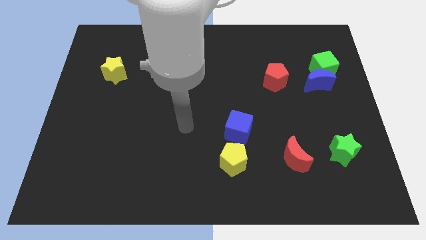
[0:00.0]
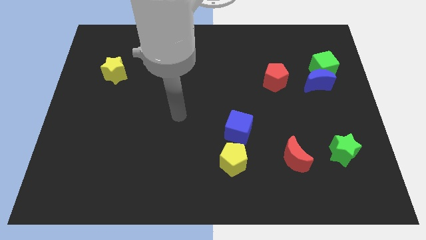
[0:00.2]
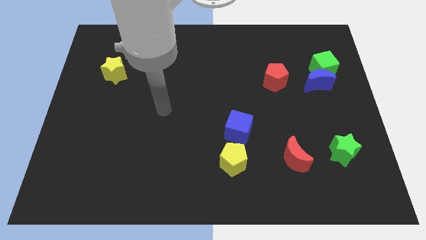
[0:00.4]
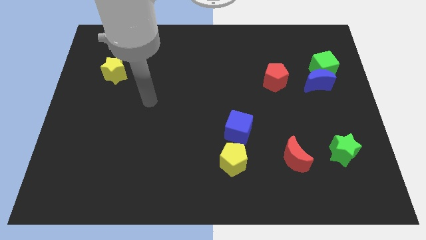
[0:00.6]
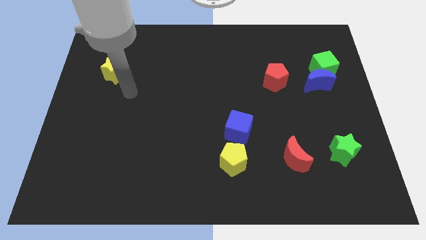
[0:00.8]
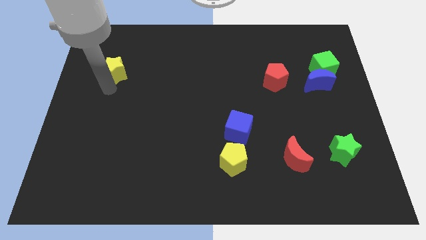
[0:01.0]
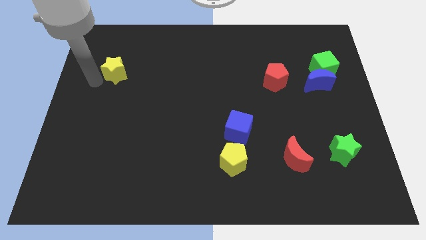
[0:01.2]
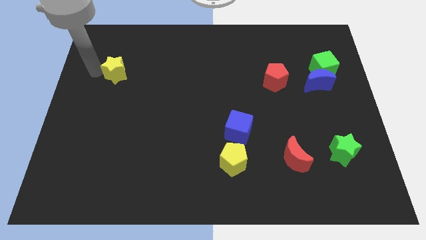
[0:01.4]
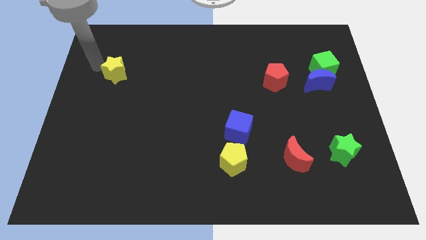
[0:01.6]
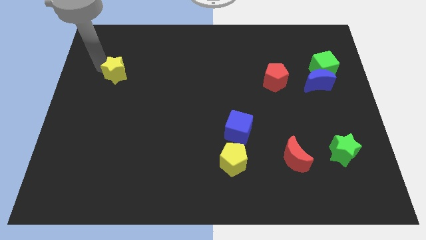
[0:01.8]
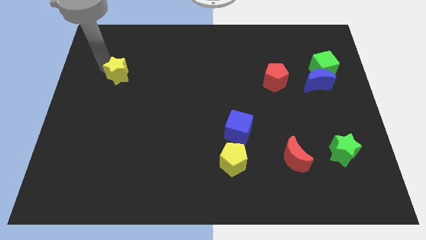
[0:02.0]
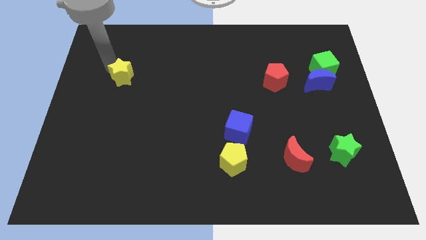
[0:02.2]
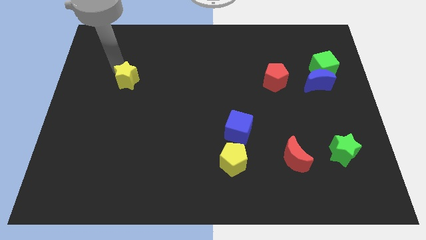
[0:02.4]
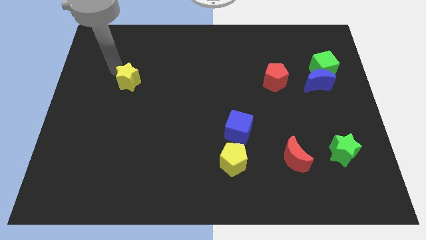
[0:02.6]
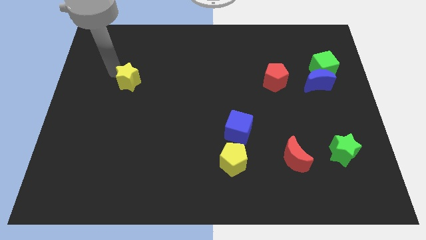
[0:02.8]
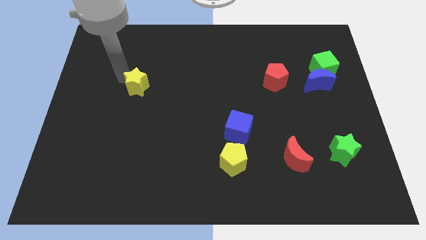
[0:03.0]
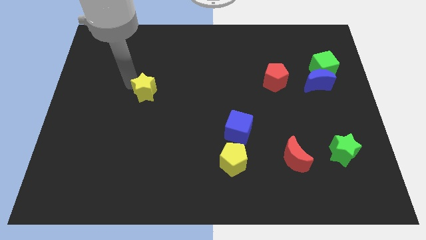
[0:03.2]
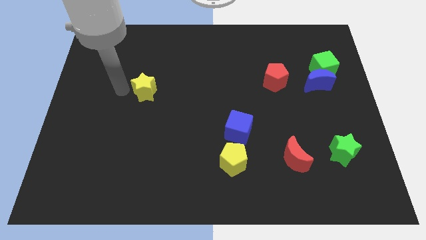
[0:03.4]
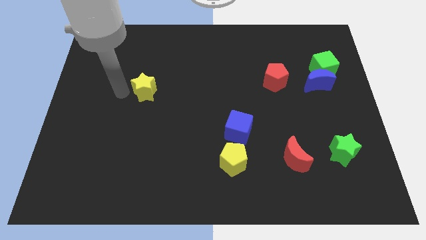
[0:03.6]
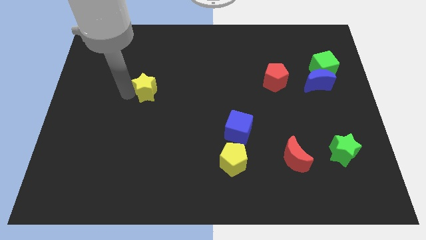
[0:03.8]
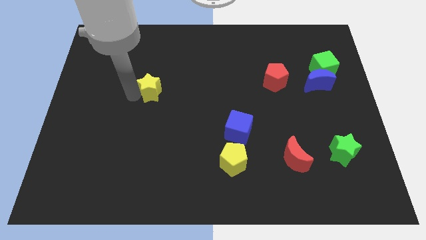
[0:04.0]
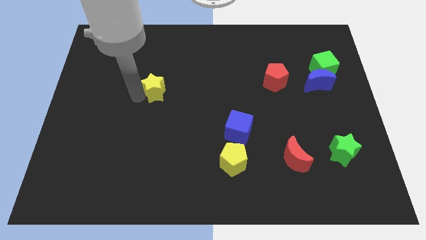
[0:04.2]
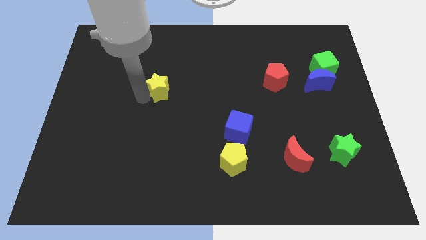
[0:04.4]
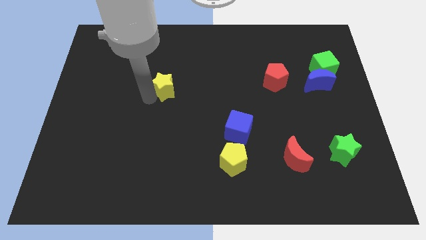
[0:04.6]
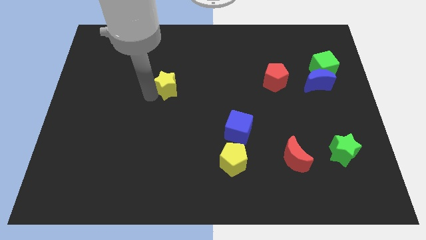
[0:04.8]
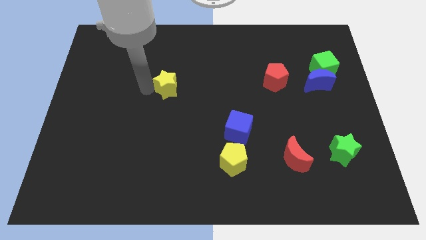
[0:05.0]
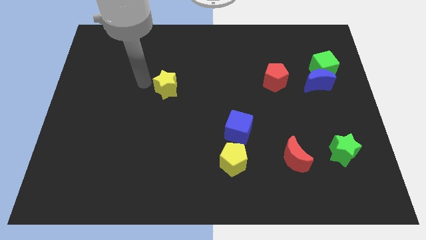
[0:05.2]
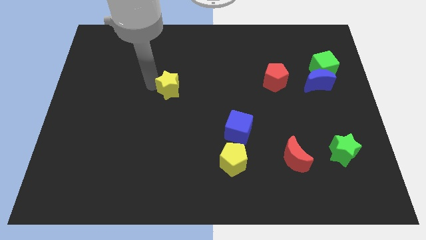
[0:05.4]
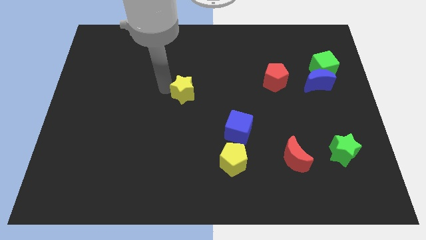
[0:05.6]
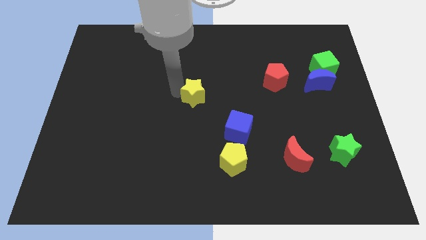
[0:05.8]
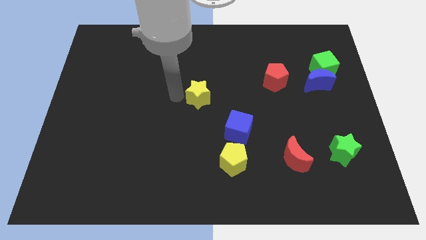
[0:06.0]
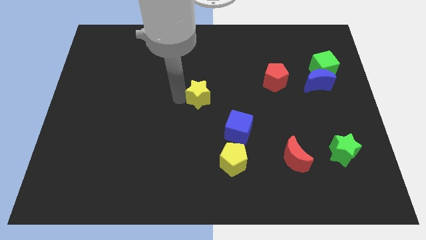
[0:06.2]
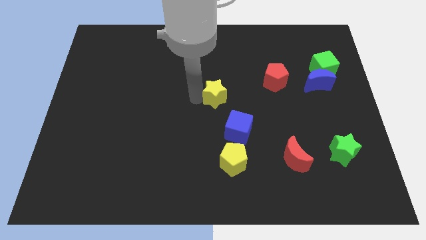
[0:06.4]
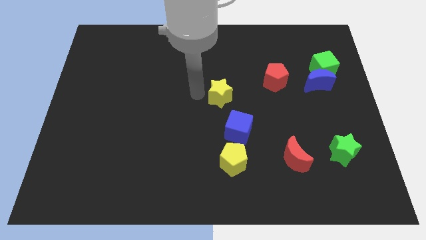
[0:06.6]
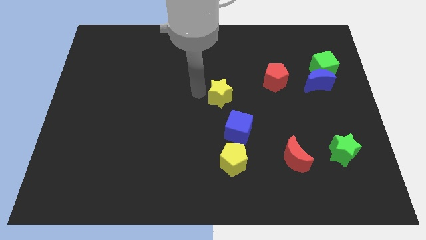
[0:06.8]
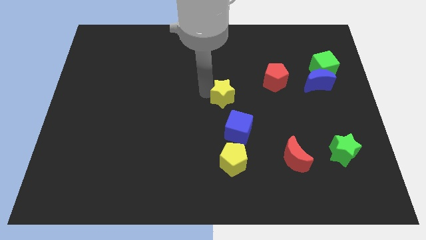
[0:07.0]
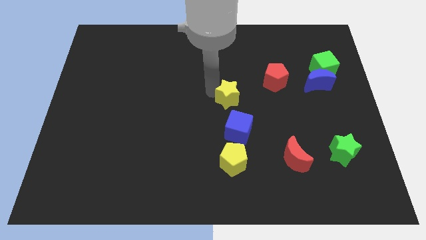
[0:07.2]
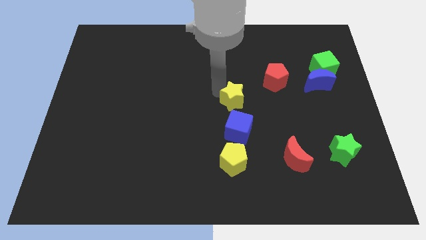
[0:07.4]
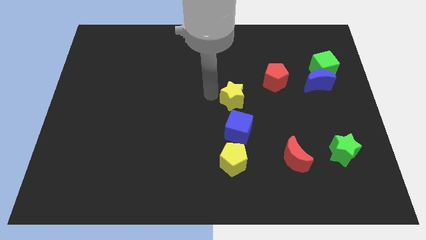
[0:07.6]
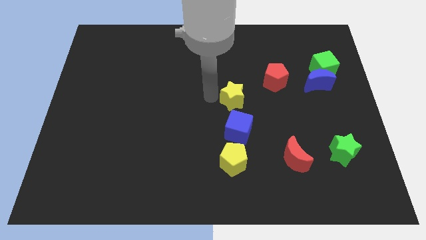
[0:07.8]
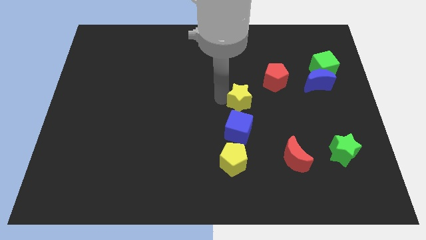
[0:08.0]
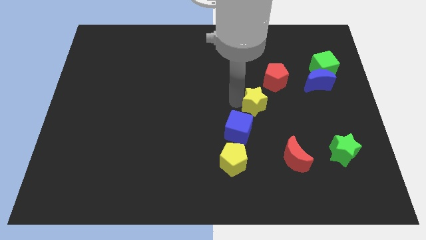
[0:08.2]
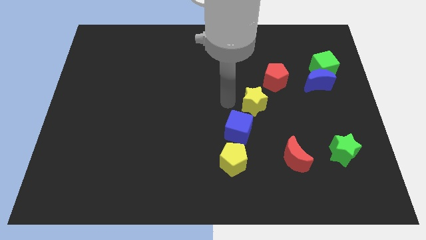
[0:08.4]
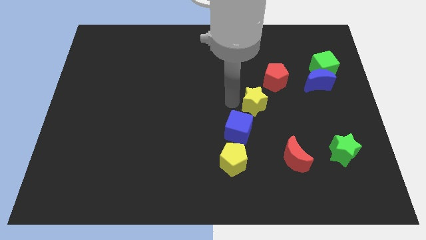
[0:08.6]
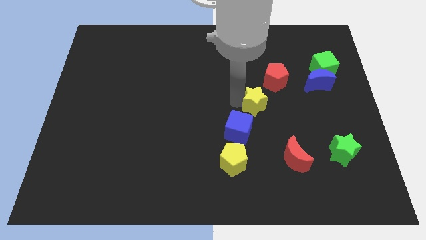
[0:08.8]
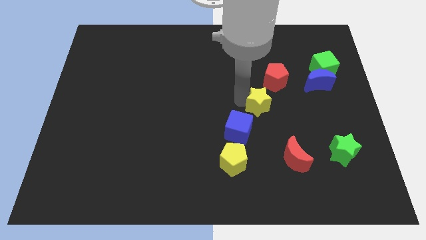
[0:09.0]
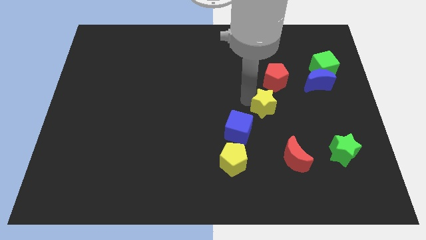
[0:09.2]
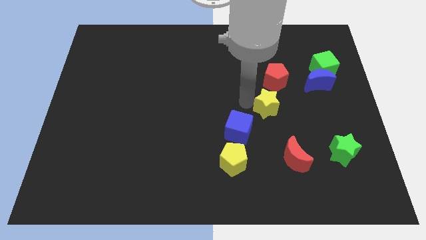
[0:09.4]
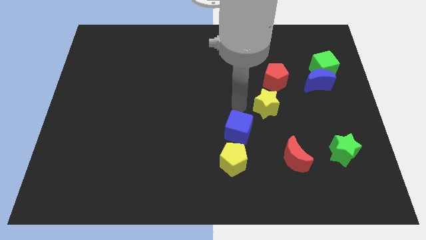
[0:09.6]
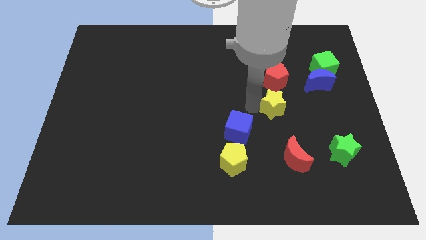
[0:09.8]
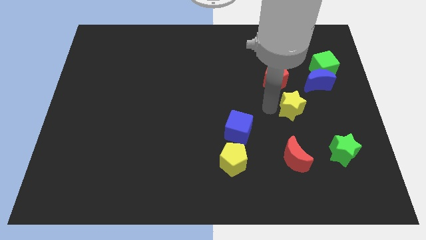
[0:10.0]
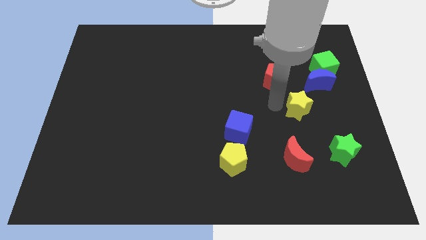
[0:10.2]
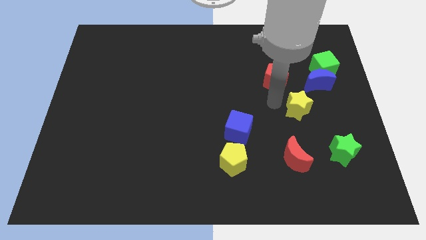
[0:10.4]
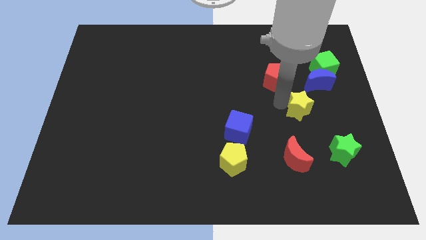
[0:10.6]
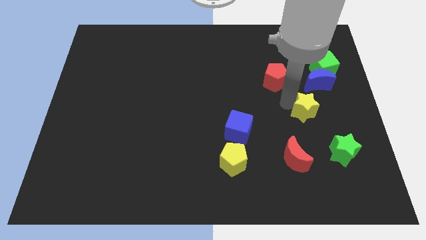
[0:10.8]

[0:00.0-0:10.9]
put the yellow star to the bottom of the blue moon

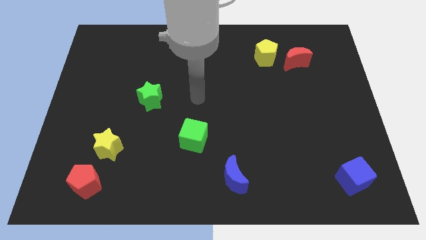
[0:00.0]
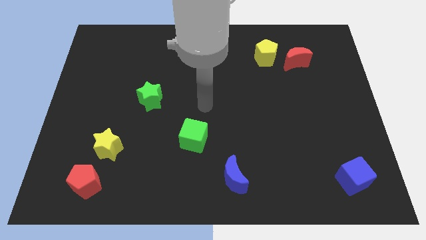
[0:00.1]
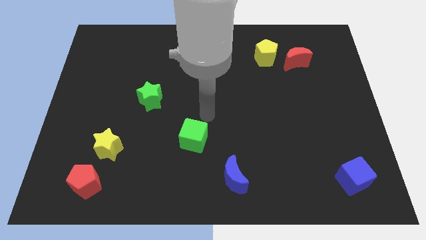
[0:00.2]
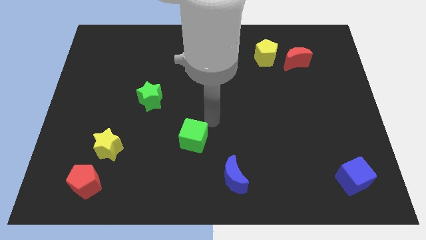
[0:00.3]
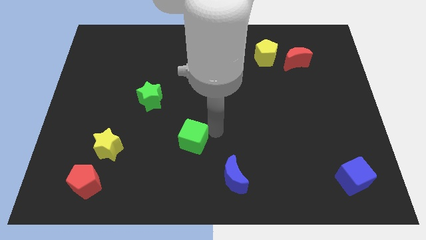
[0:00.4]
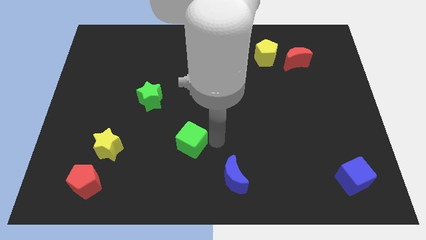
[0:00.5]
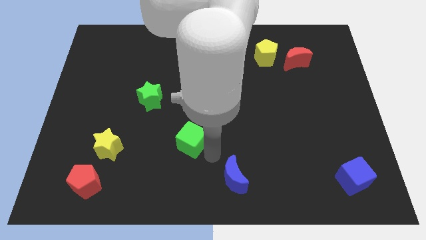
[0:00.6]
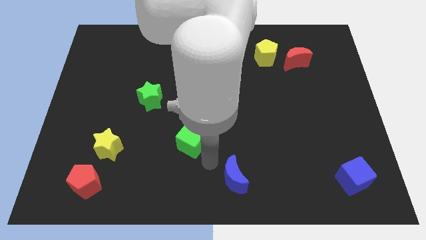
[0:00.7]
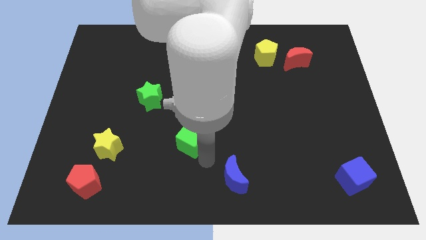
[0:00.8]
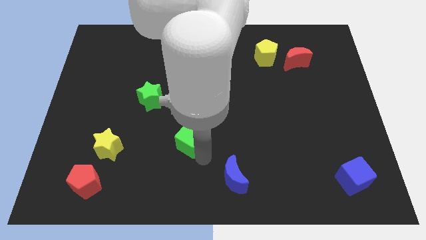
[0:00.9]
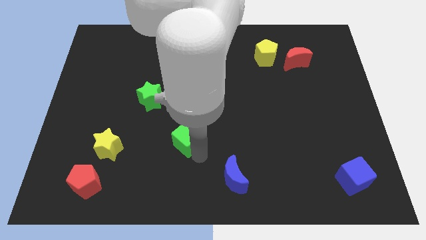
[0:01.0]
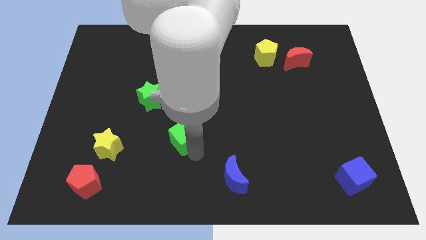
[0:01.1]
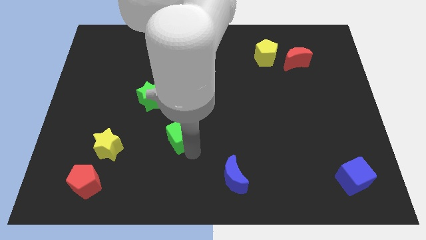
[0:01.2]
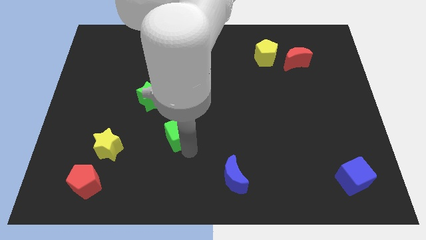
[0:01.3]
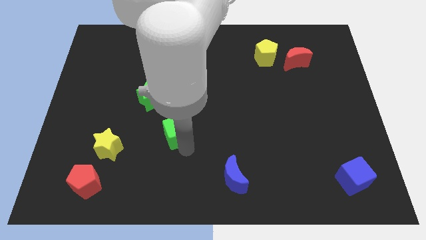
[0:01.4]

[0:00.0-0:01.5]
slide the green cube to the bottom right of the green star
